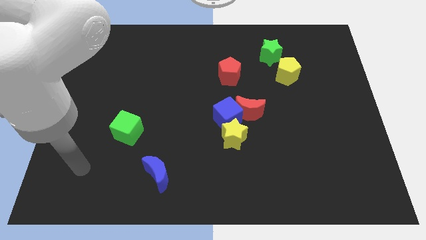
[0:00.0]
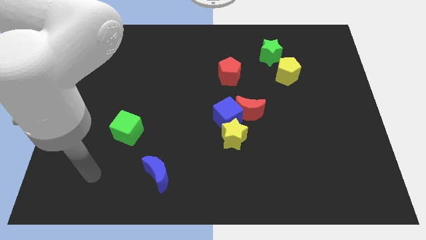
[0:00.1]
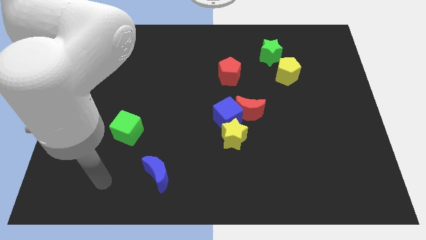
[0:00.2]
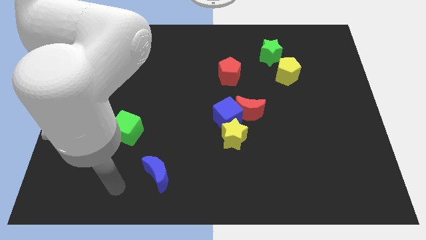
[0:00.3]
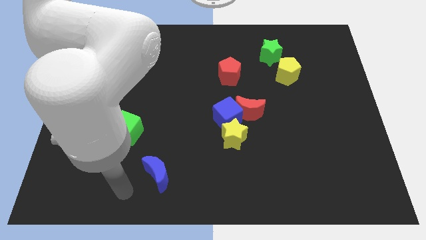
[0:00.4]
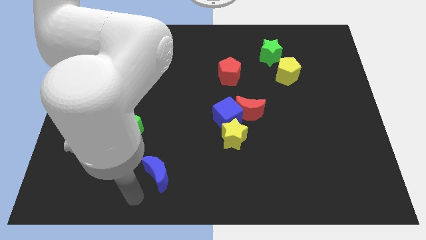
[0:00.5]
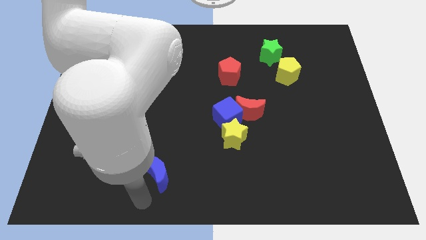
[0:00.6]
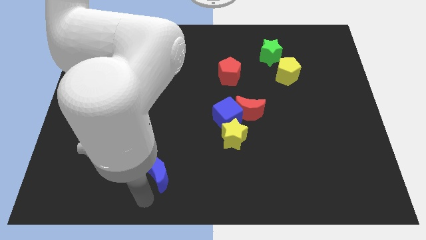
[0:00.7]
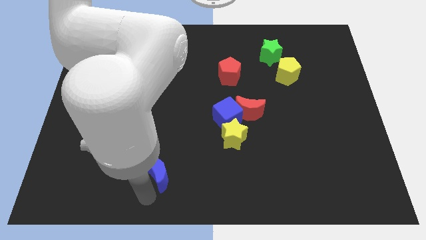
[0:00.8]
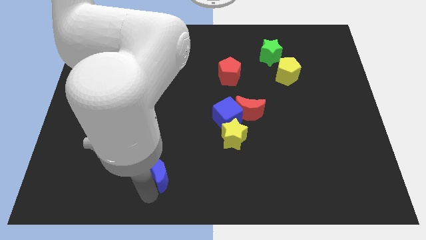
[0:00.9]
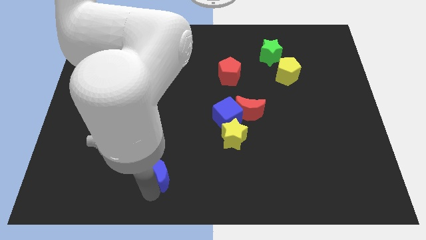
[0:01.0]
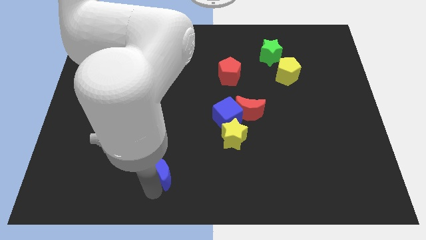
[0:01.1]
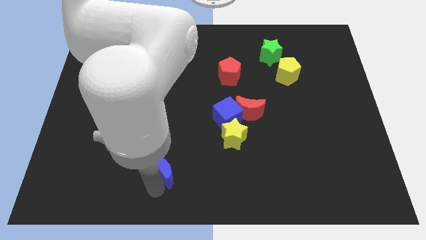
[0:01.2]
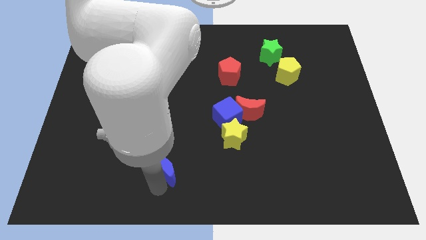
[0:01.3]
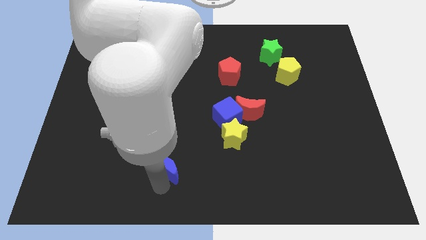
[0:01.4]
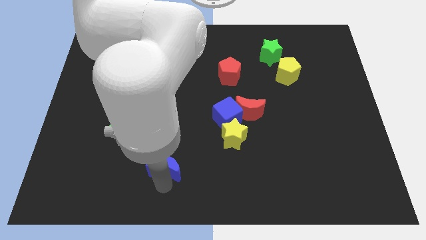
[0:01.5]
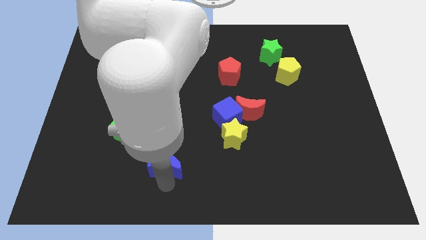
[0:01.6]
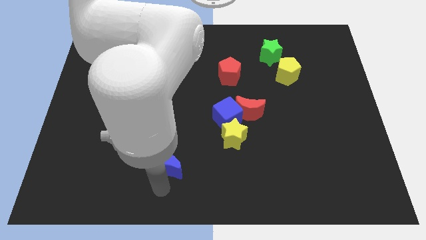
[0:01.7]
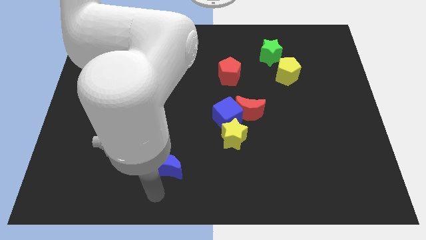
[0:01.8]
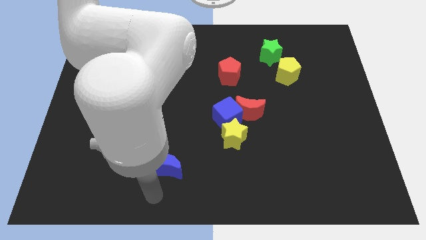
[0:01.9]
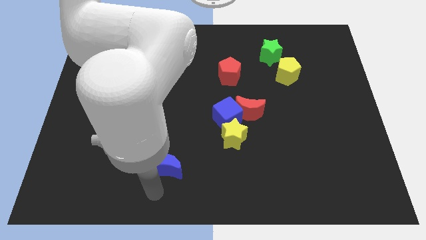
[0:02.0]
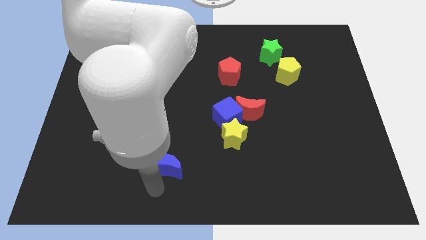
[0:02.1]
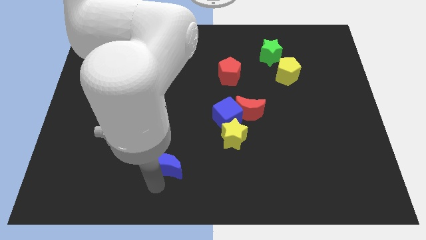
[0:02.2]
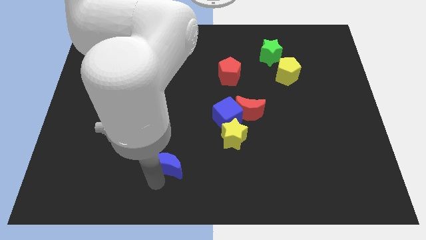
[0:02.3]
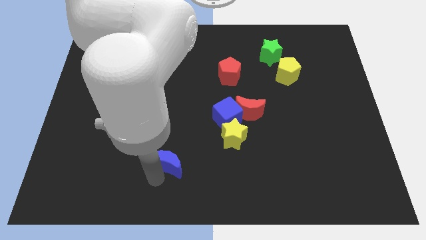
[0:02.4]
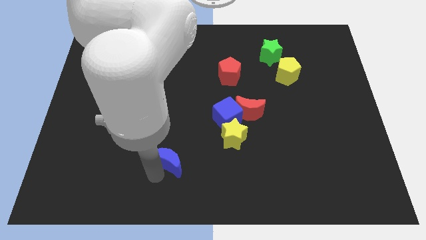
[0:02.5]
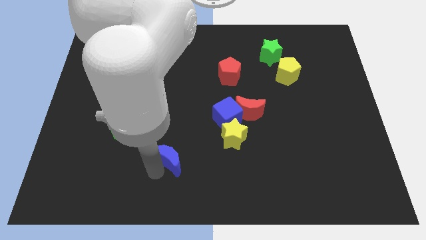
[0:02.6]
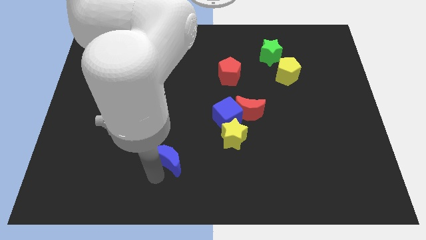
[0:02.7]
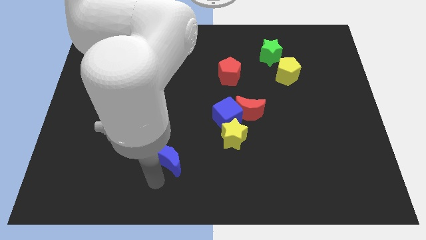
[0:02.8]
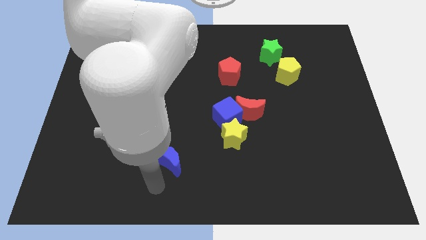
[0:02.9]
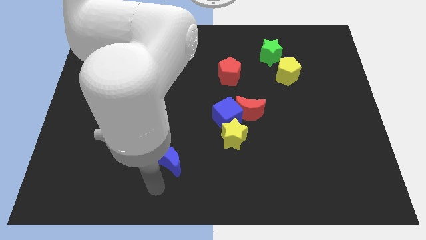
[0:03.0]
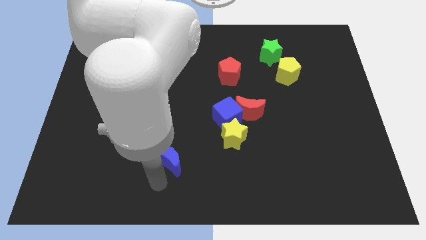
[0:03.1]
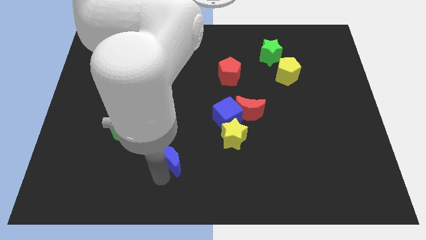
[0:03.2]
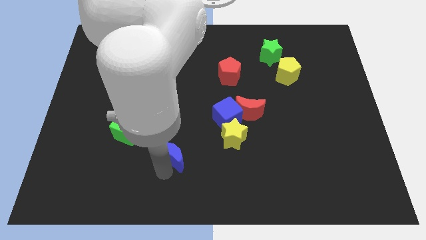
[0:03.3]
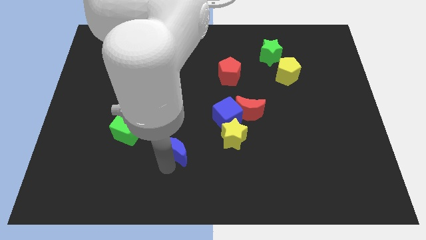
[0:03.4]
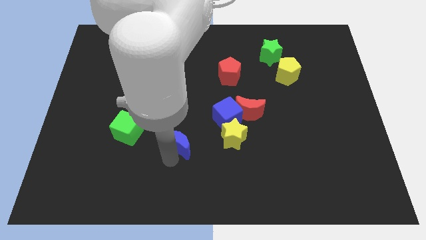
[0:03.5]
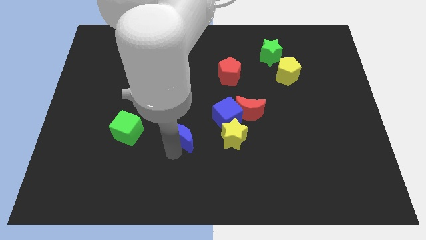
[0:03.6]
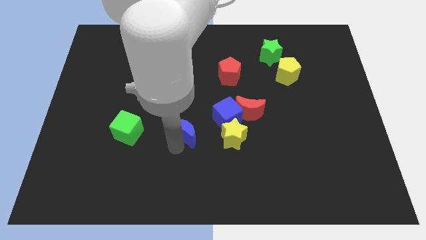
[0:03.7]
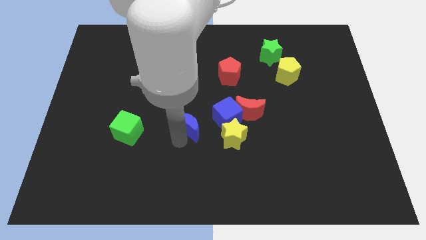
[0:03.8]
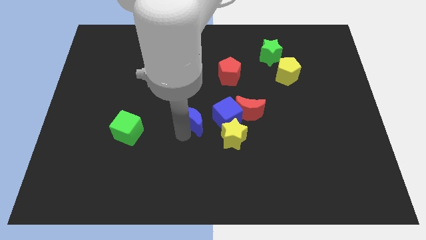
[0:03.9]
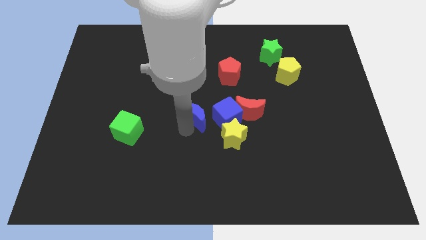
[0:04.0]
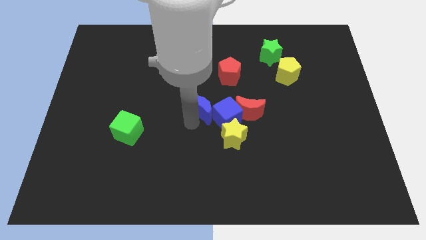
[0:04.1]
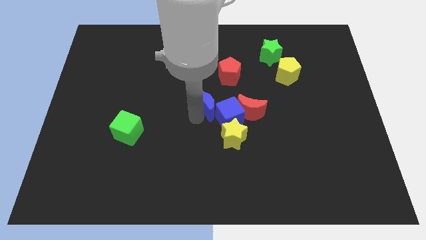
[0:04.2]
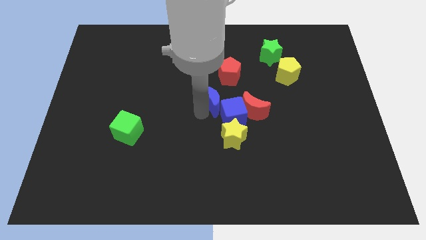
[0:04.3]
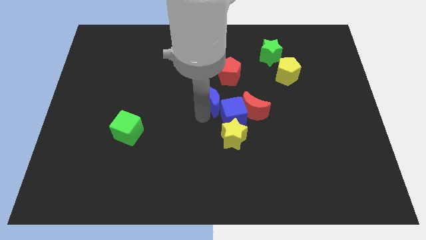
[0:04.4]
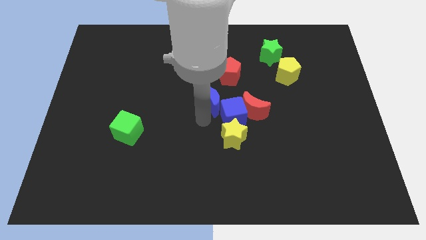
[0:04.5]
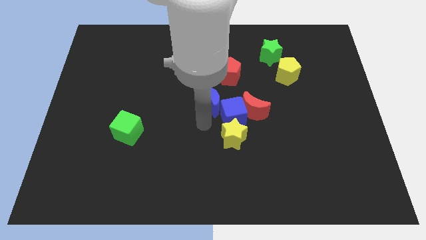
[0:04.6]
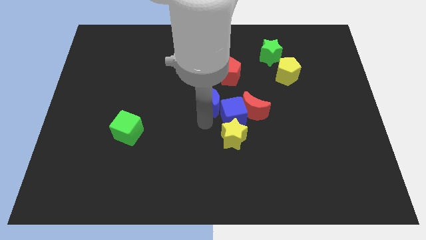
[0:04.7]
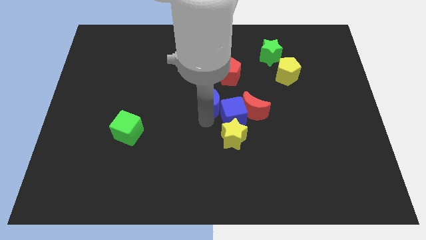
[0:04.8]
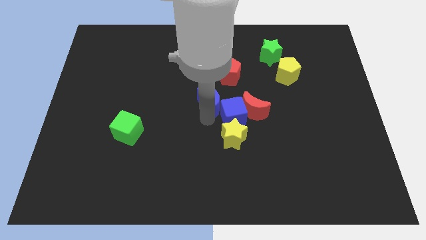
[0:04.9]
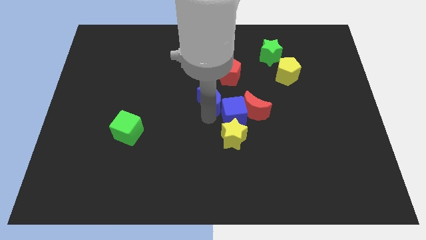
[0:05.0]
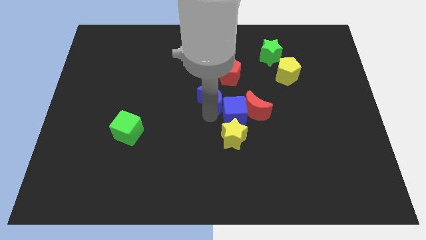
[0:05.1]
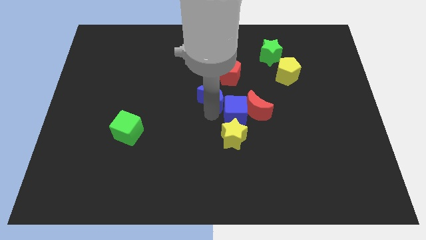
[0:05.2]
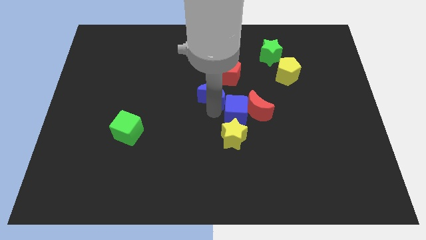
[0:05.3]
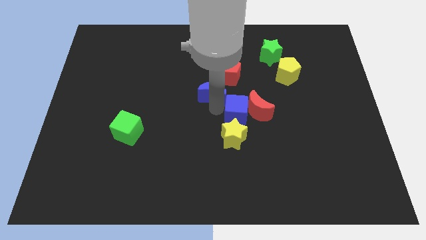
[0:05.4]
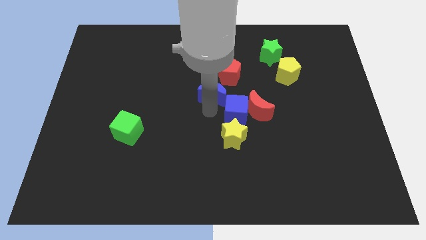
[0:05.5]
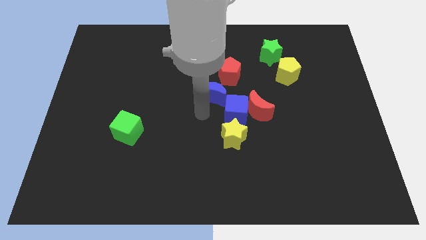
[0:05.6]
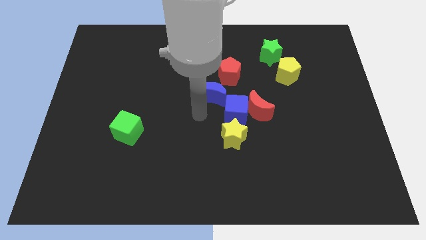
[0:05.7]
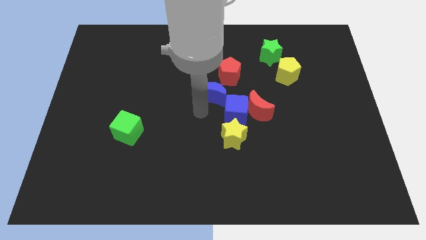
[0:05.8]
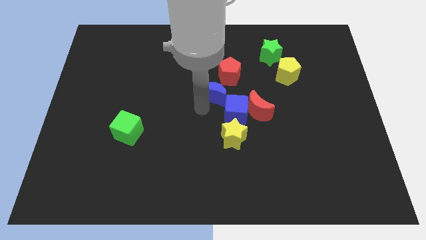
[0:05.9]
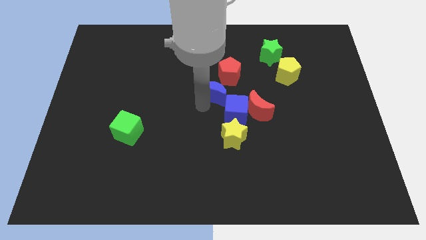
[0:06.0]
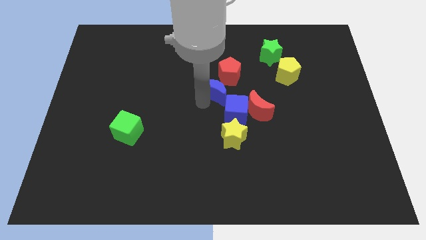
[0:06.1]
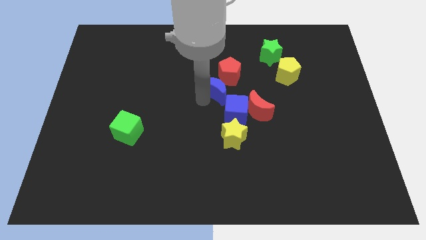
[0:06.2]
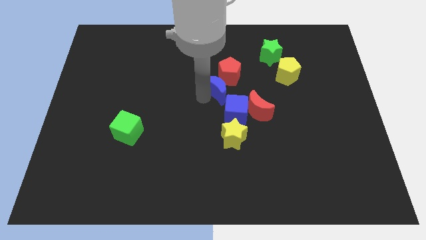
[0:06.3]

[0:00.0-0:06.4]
push the blue moon towards the red pentagon
